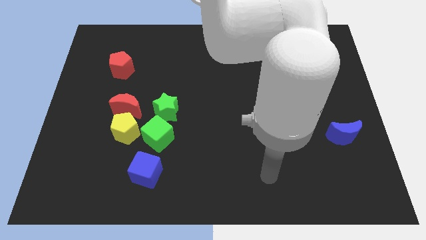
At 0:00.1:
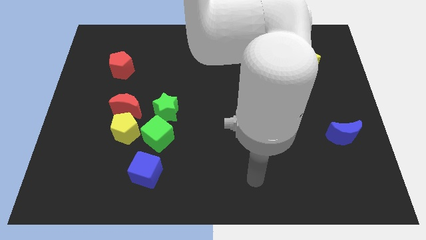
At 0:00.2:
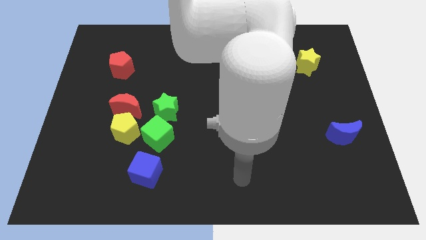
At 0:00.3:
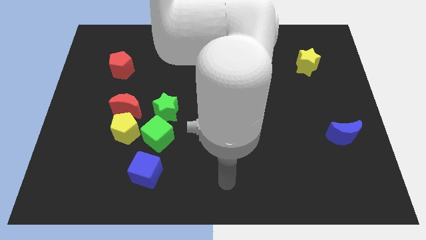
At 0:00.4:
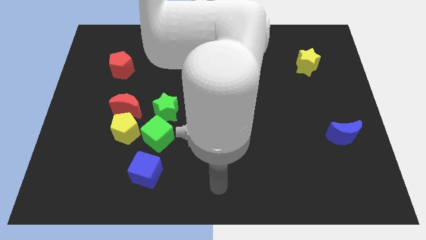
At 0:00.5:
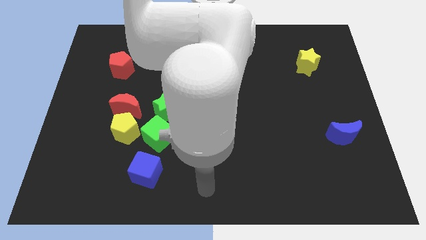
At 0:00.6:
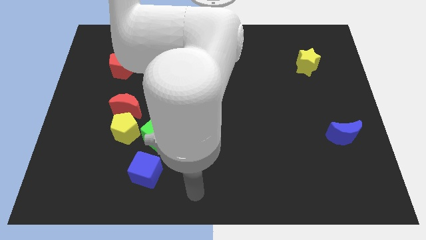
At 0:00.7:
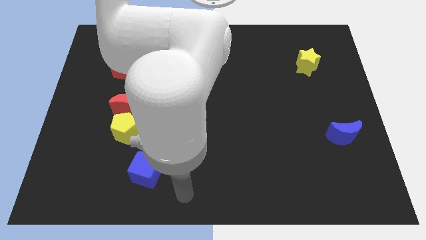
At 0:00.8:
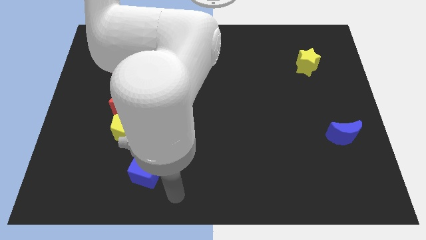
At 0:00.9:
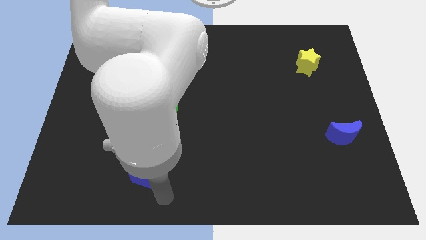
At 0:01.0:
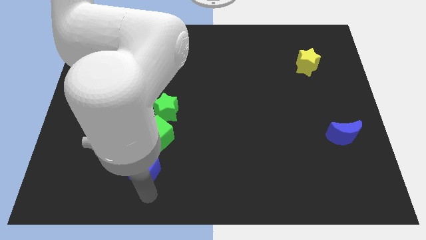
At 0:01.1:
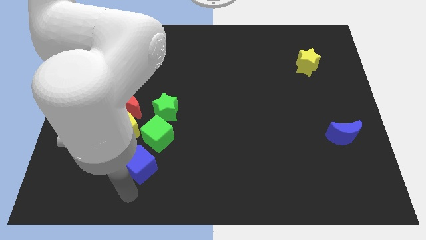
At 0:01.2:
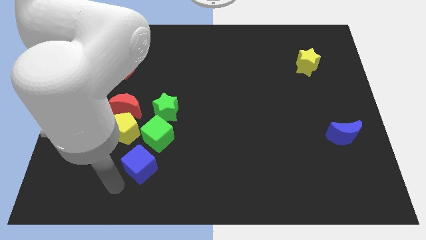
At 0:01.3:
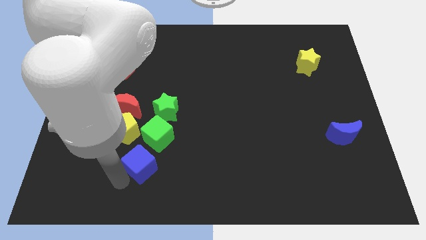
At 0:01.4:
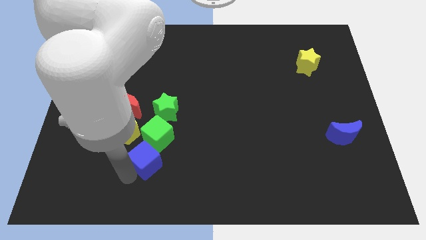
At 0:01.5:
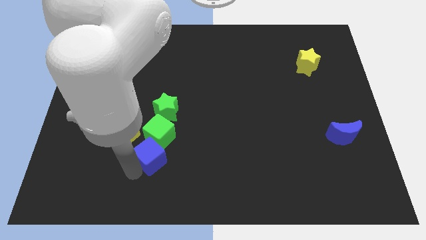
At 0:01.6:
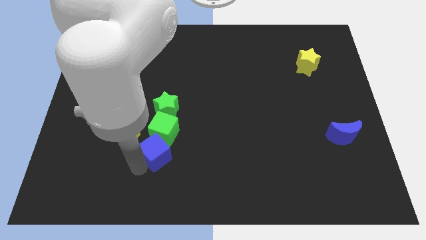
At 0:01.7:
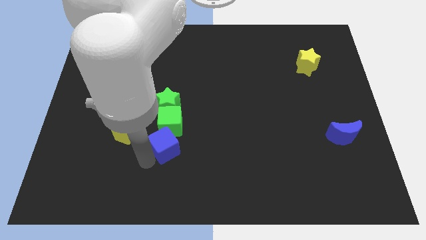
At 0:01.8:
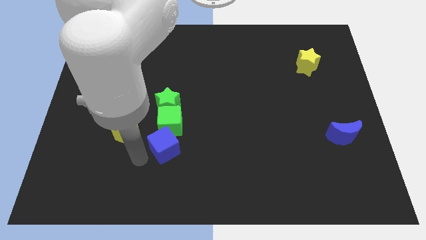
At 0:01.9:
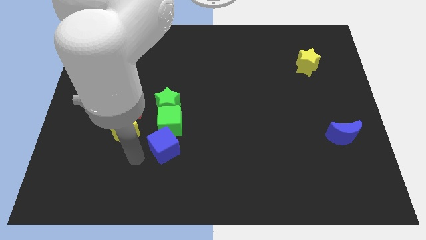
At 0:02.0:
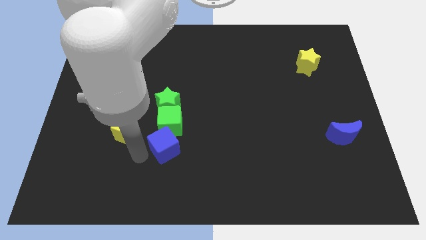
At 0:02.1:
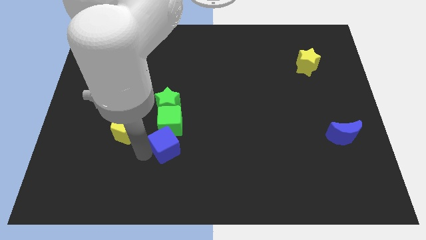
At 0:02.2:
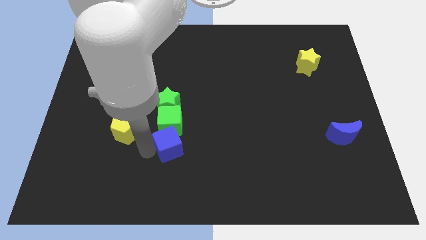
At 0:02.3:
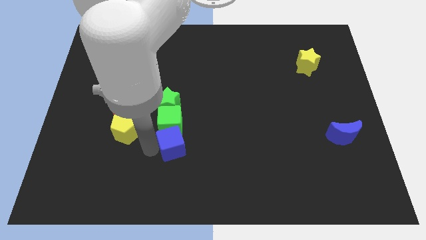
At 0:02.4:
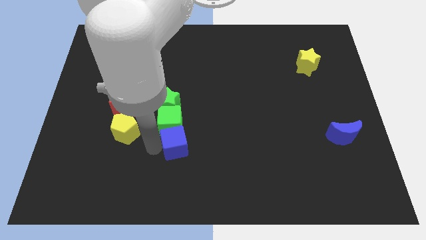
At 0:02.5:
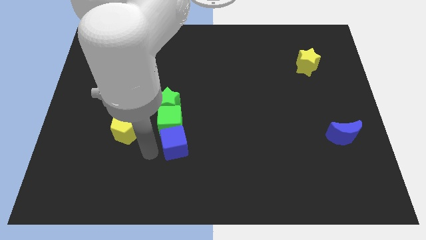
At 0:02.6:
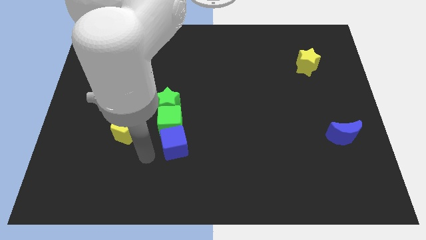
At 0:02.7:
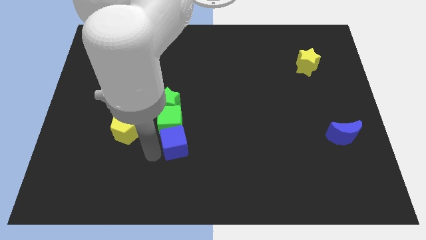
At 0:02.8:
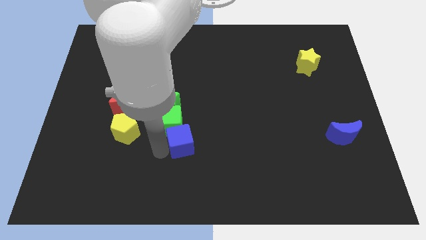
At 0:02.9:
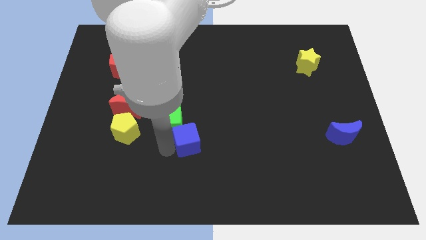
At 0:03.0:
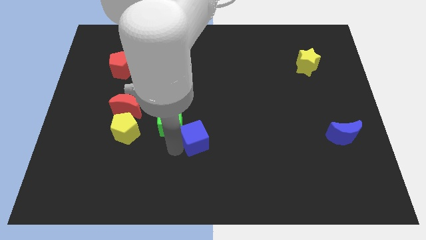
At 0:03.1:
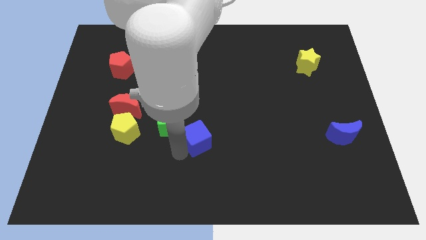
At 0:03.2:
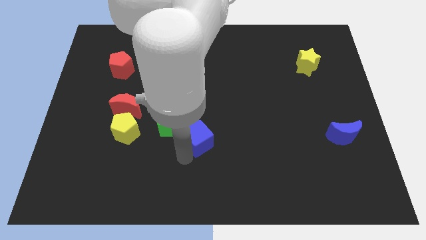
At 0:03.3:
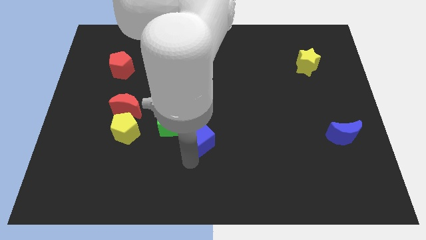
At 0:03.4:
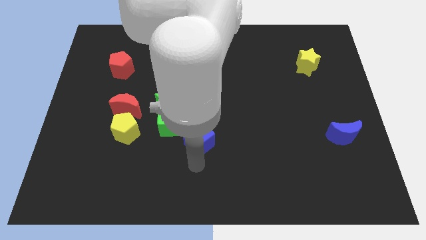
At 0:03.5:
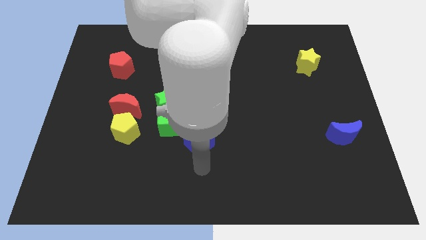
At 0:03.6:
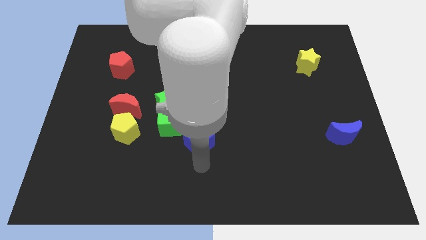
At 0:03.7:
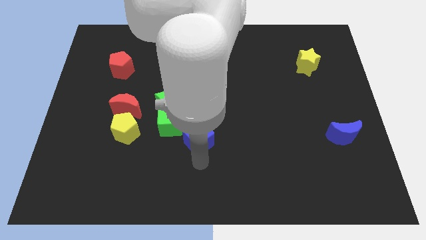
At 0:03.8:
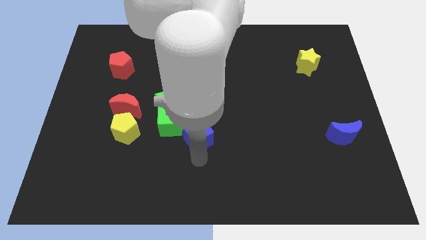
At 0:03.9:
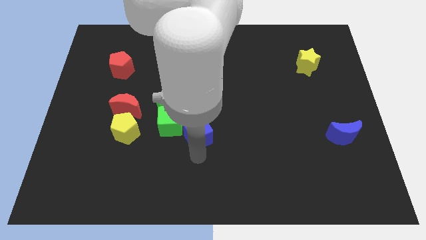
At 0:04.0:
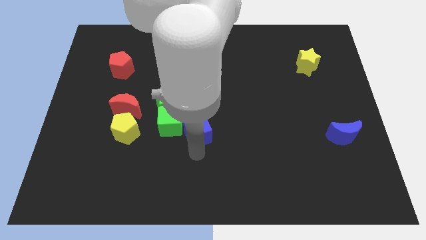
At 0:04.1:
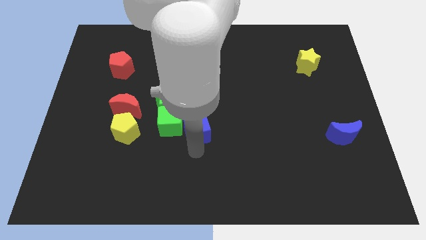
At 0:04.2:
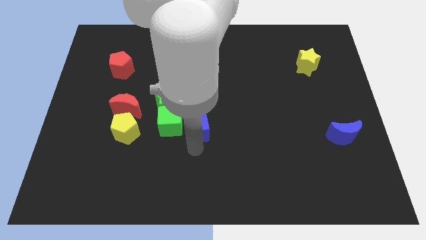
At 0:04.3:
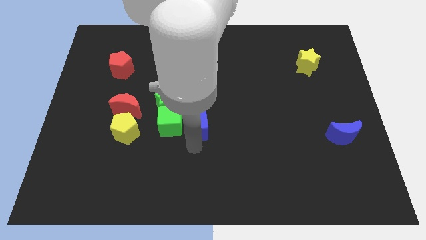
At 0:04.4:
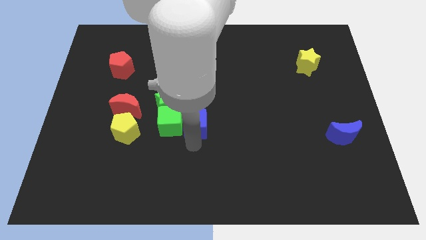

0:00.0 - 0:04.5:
move the blue cube somewhat upwards

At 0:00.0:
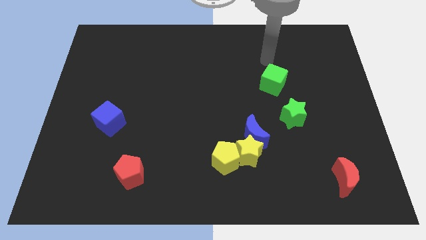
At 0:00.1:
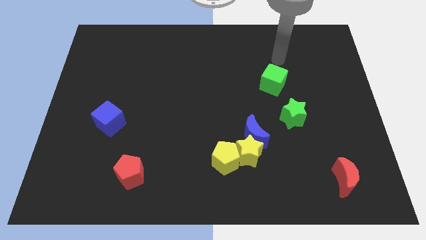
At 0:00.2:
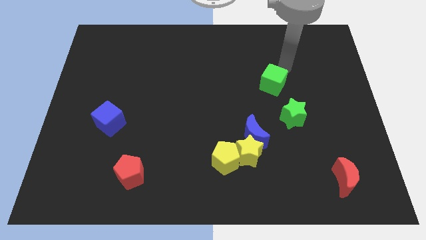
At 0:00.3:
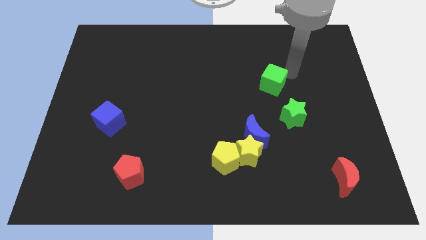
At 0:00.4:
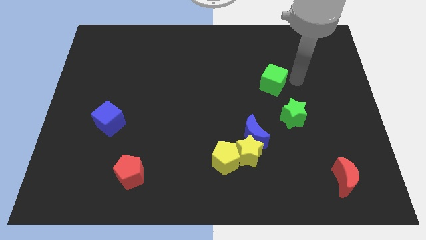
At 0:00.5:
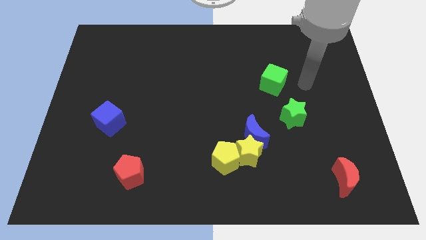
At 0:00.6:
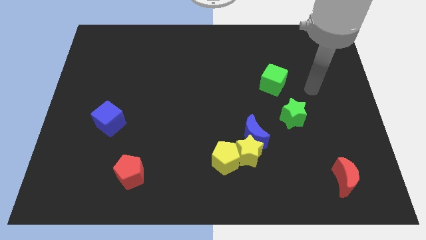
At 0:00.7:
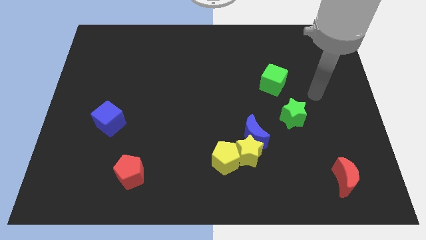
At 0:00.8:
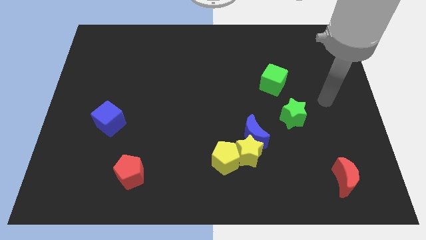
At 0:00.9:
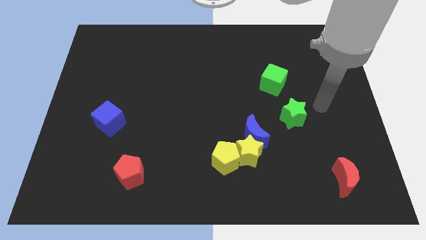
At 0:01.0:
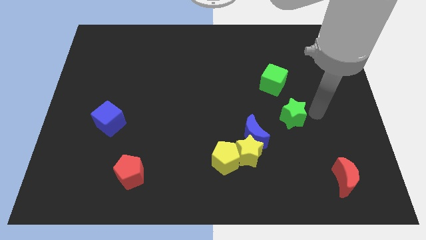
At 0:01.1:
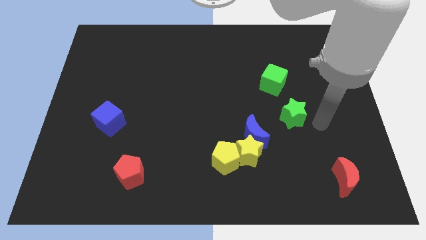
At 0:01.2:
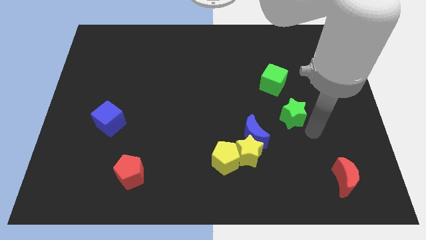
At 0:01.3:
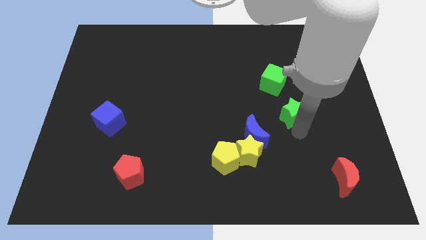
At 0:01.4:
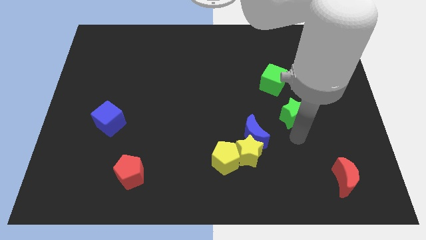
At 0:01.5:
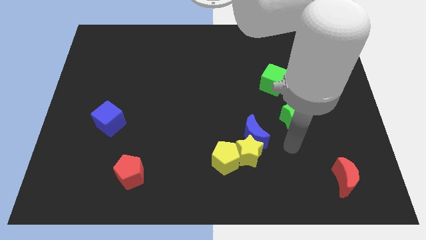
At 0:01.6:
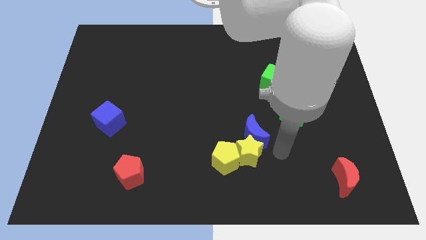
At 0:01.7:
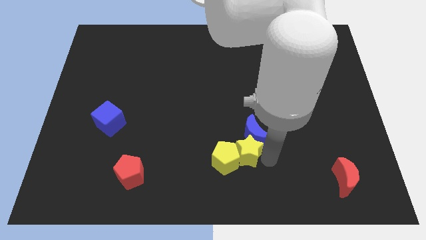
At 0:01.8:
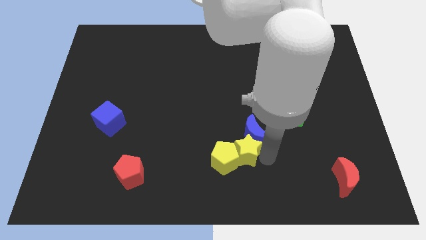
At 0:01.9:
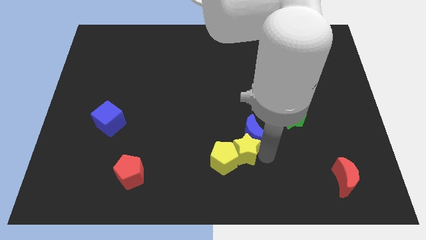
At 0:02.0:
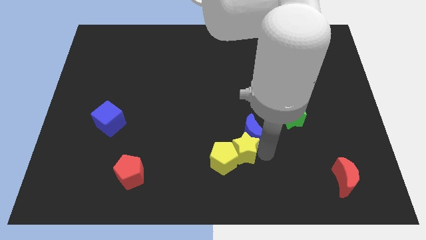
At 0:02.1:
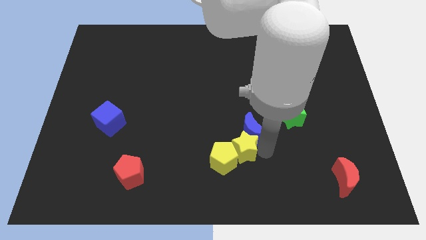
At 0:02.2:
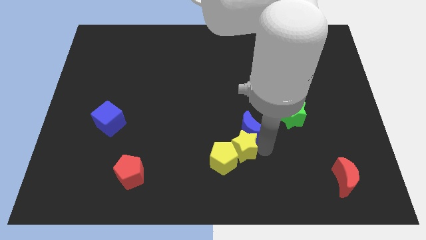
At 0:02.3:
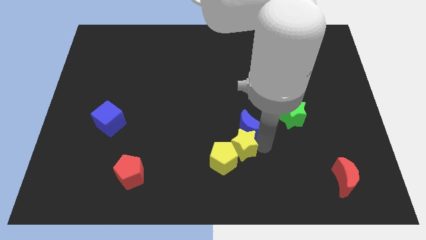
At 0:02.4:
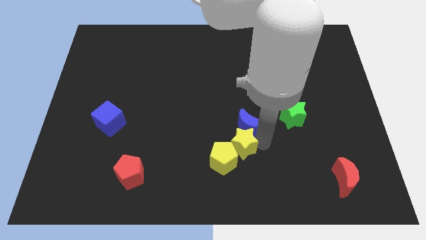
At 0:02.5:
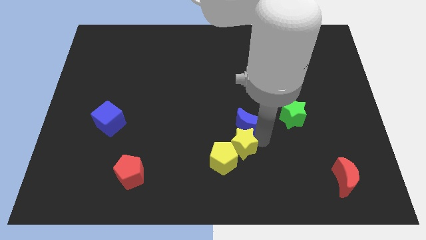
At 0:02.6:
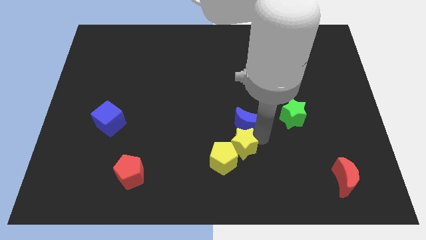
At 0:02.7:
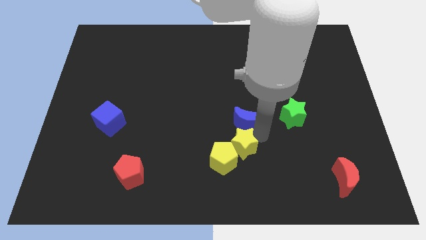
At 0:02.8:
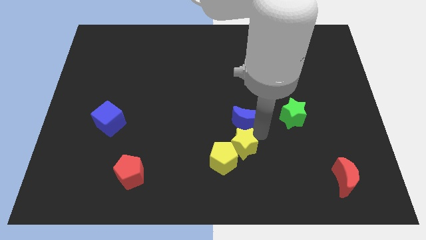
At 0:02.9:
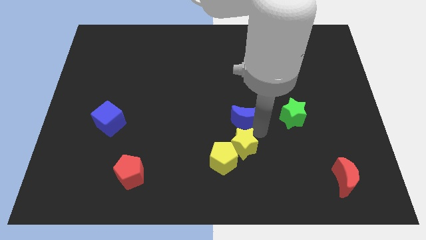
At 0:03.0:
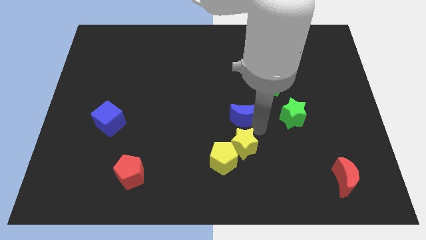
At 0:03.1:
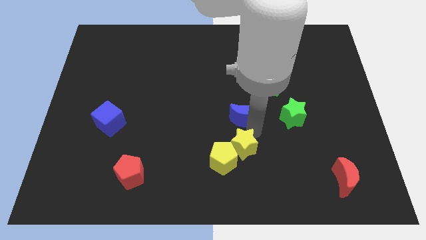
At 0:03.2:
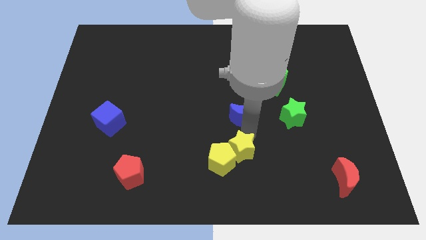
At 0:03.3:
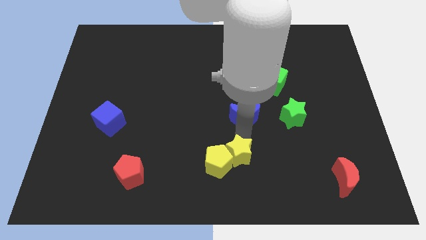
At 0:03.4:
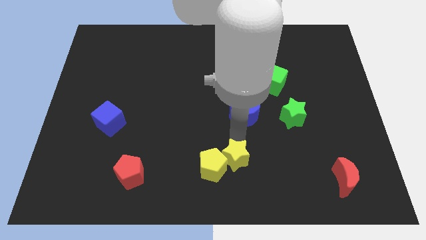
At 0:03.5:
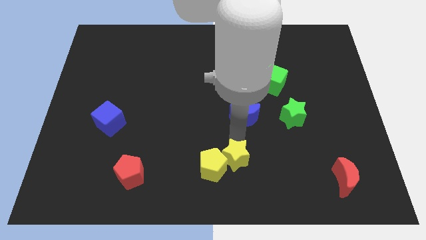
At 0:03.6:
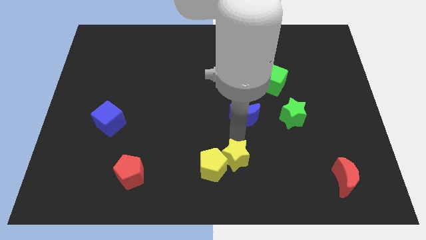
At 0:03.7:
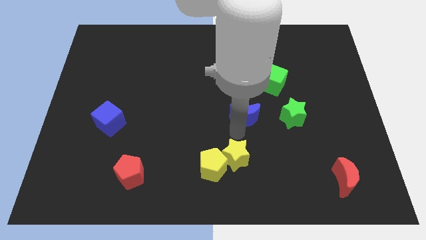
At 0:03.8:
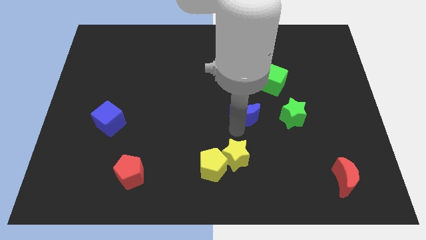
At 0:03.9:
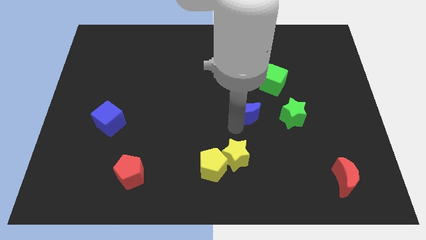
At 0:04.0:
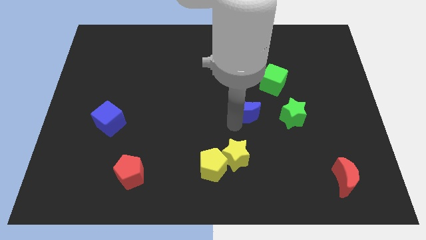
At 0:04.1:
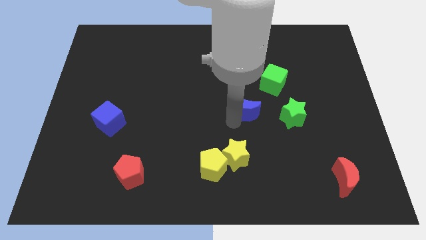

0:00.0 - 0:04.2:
slightly slide the blue moon up

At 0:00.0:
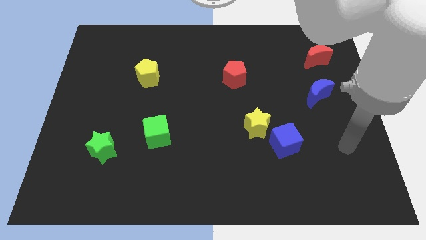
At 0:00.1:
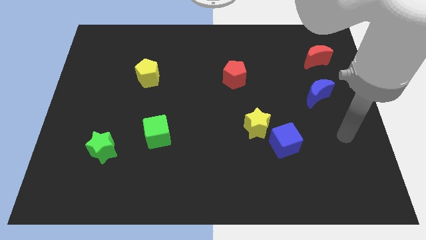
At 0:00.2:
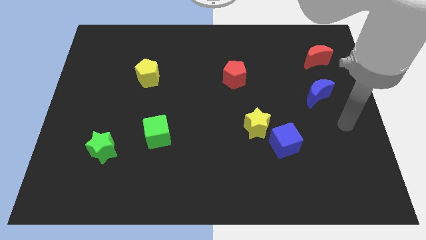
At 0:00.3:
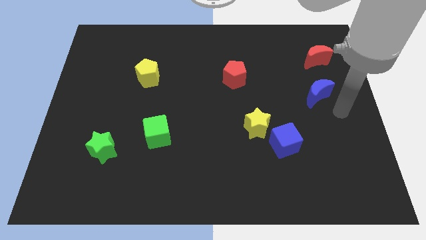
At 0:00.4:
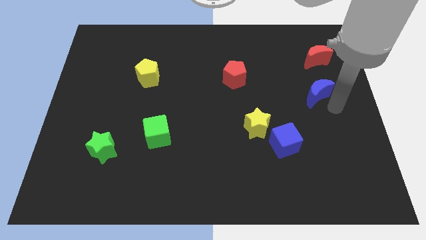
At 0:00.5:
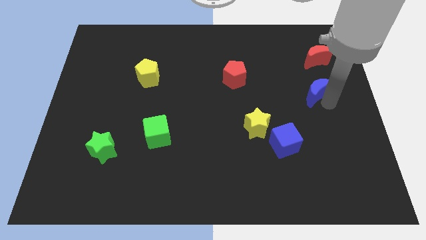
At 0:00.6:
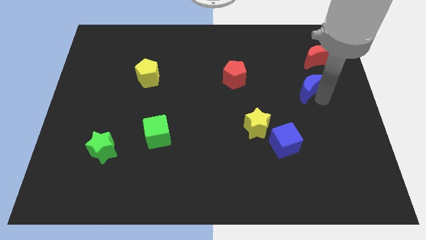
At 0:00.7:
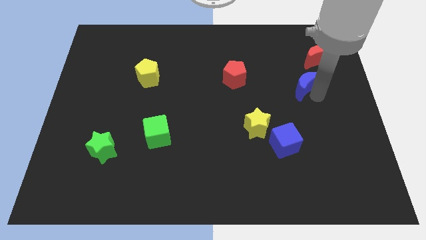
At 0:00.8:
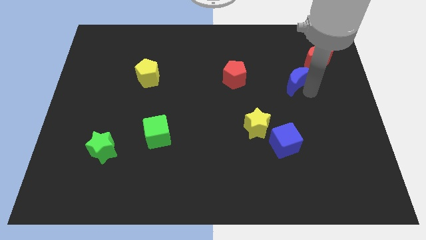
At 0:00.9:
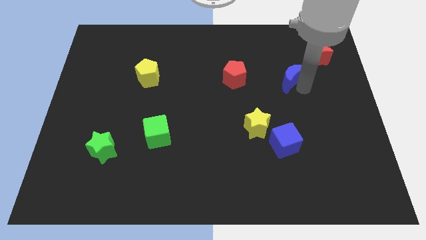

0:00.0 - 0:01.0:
push the blue moon up and then left a little
